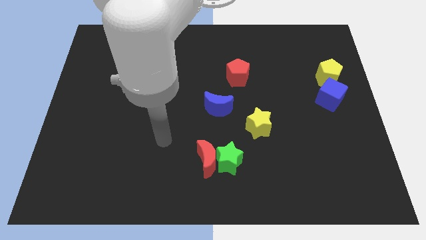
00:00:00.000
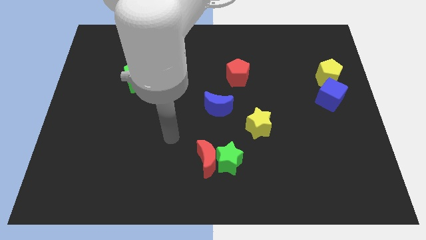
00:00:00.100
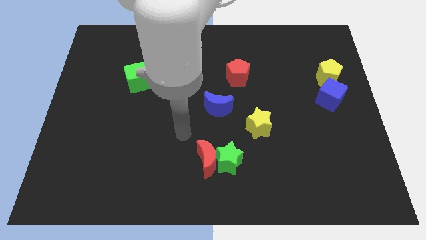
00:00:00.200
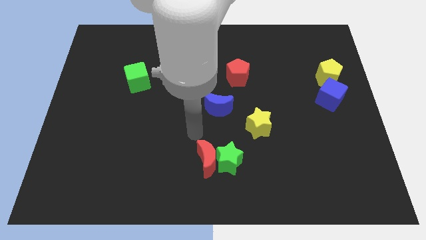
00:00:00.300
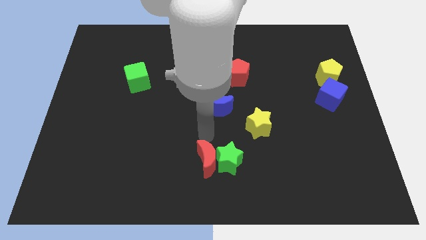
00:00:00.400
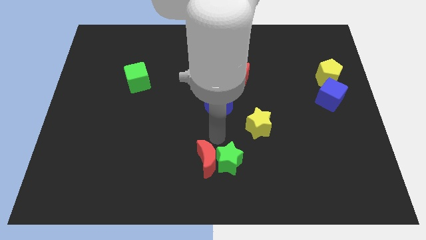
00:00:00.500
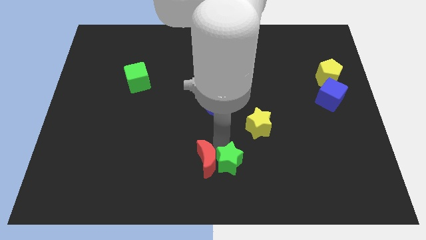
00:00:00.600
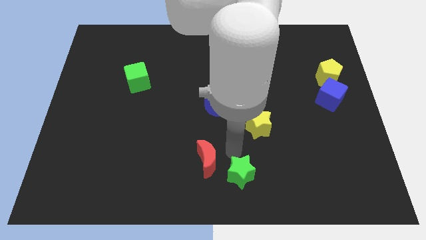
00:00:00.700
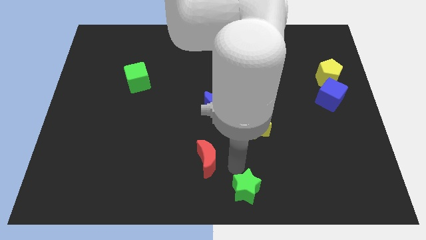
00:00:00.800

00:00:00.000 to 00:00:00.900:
separate the red moon from the green star

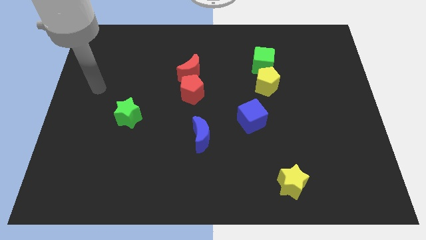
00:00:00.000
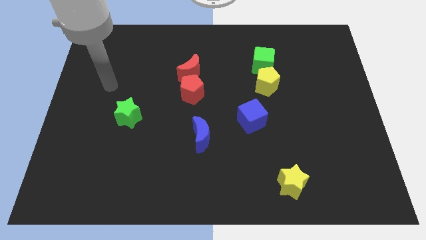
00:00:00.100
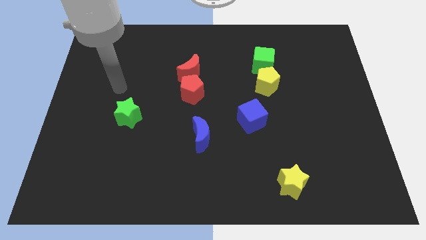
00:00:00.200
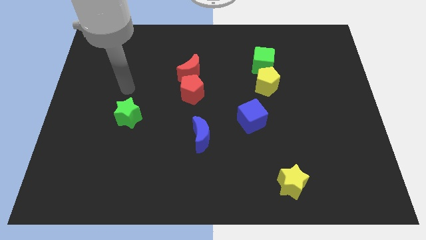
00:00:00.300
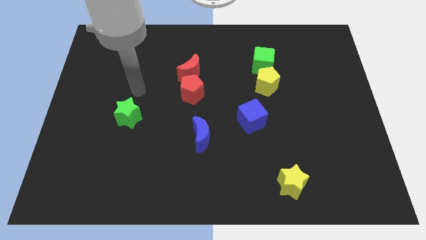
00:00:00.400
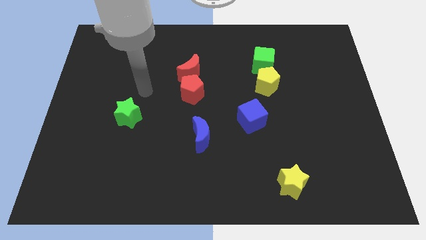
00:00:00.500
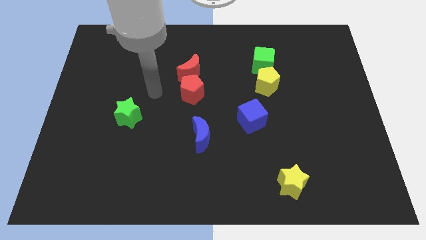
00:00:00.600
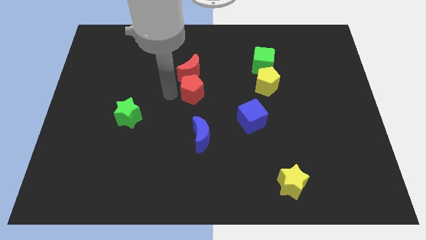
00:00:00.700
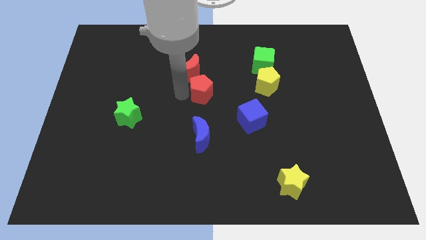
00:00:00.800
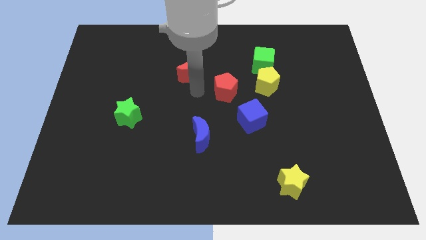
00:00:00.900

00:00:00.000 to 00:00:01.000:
move the red moon away from the red pentagon

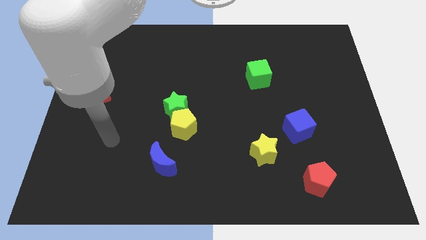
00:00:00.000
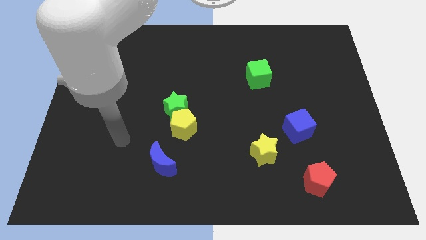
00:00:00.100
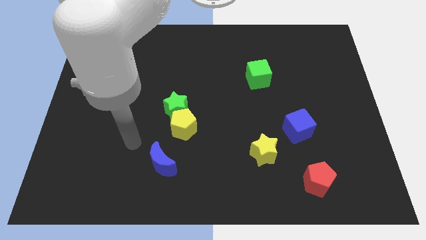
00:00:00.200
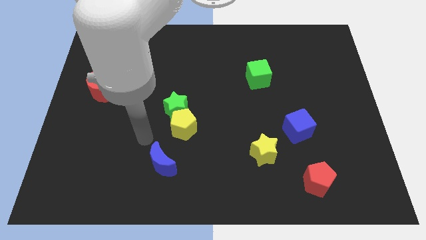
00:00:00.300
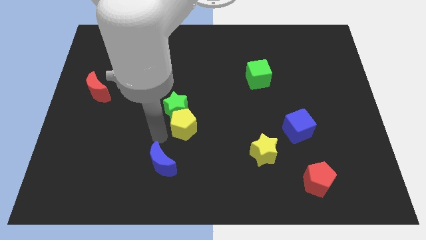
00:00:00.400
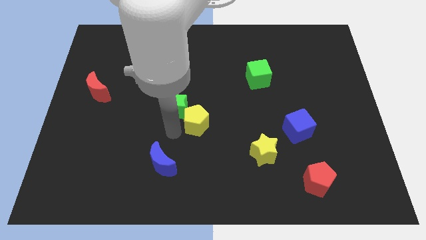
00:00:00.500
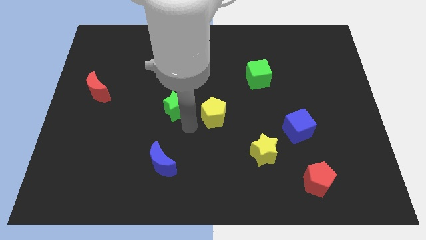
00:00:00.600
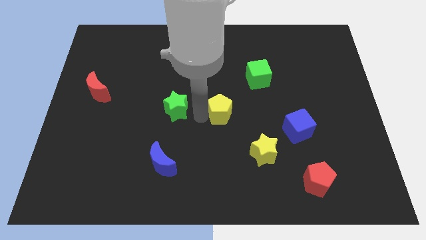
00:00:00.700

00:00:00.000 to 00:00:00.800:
pull the green star apart from the yellow pentagon

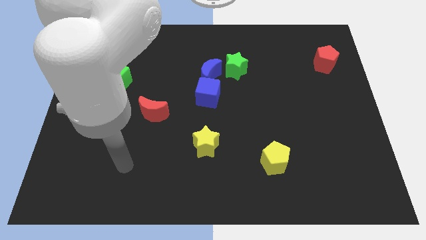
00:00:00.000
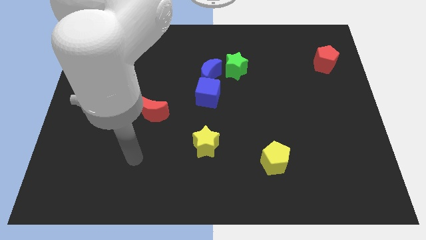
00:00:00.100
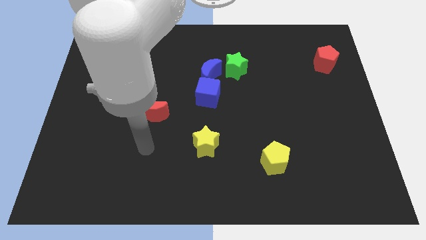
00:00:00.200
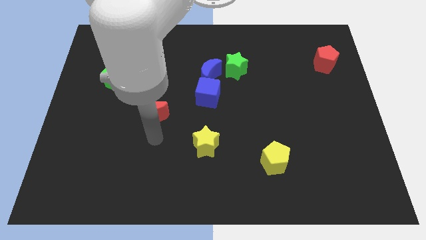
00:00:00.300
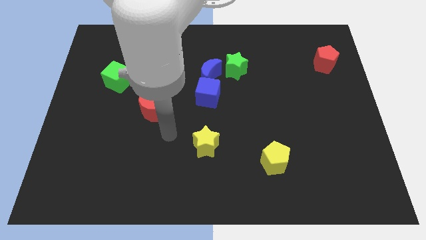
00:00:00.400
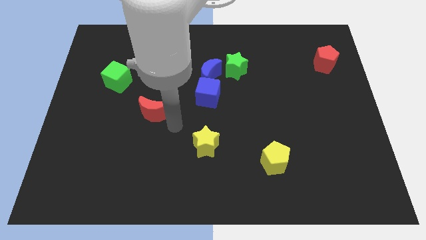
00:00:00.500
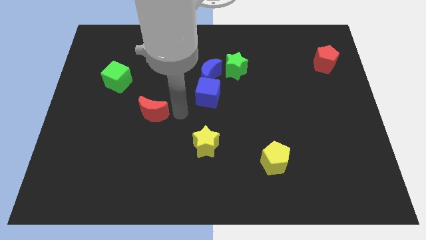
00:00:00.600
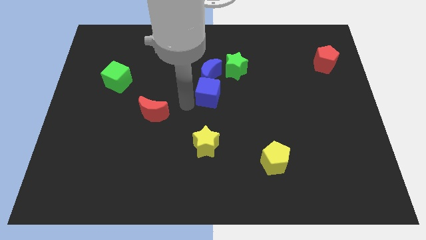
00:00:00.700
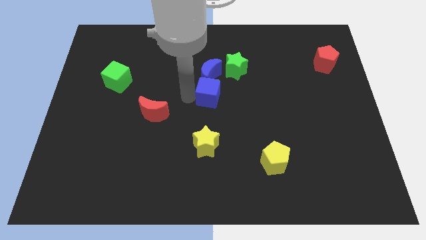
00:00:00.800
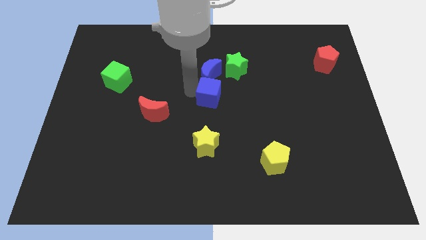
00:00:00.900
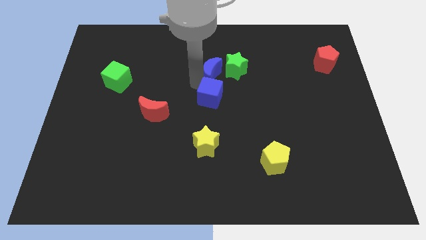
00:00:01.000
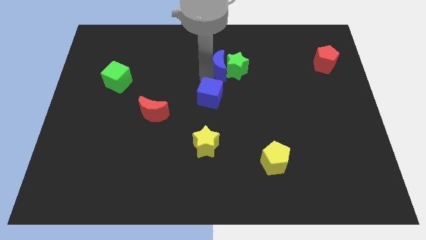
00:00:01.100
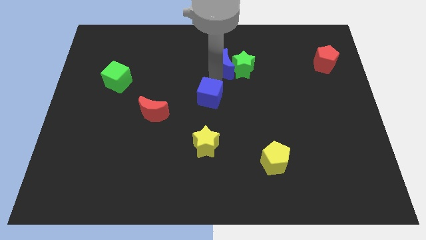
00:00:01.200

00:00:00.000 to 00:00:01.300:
pull the blue cube apart from the blue moon

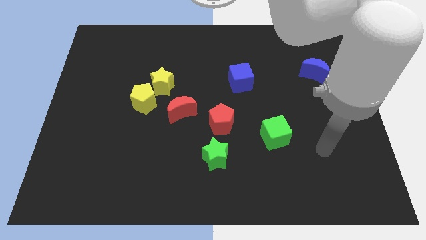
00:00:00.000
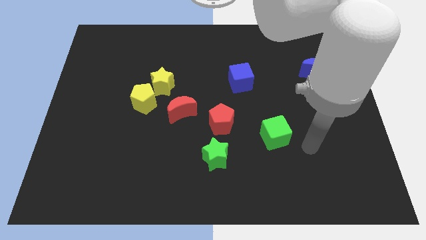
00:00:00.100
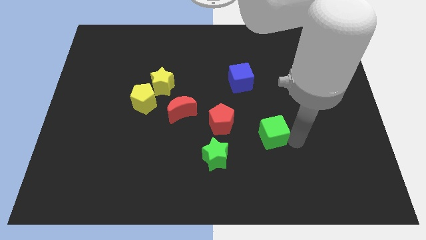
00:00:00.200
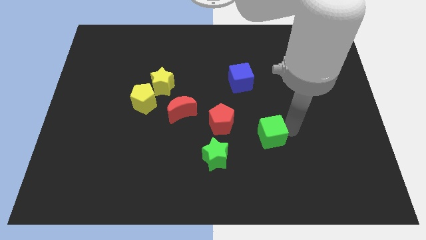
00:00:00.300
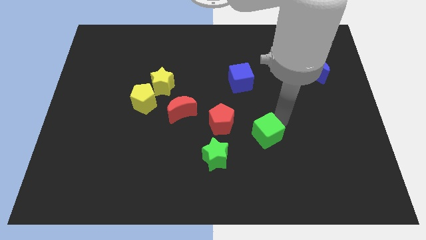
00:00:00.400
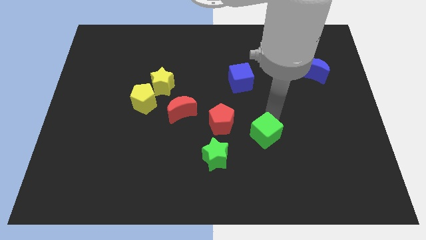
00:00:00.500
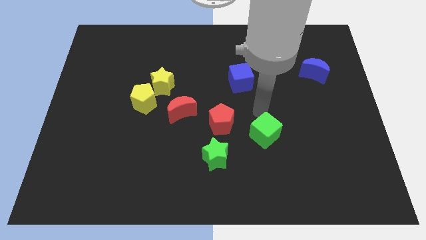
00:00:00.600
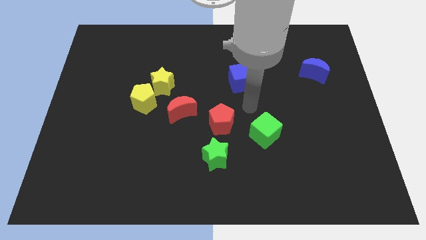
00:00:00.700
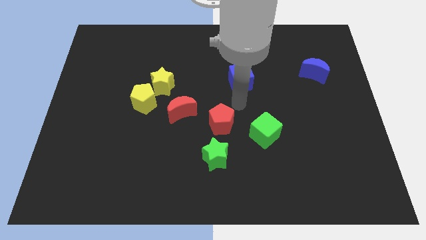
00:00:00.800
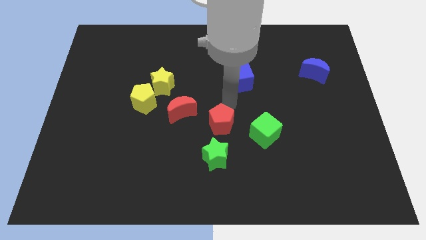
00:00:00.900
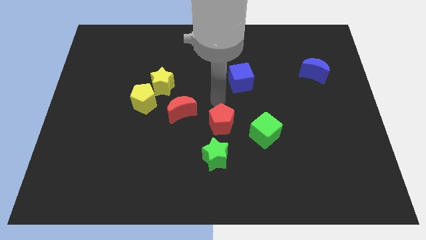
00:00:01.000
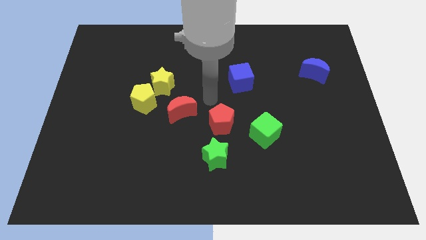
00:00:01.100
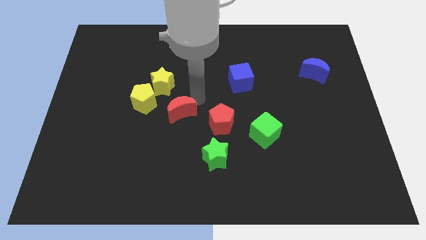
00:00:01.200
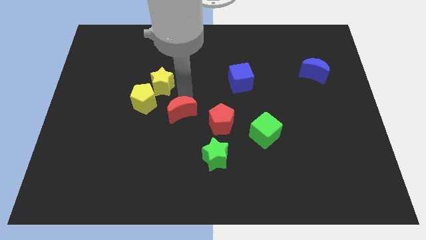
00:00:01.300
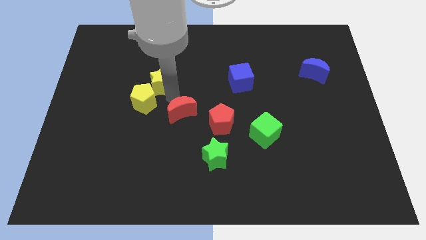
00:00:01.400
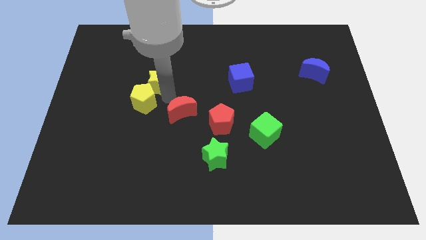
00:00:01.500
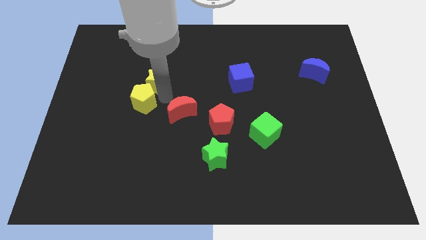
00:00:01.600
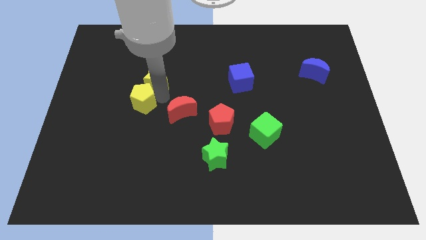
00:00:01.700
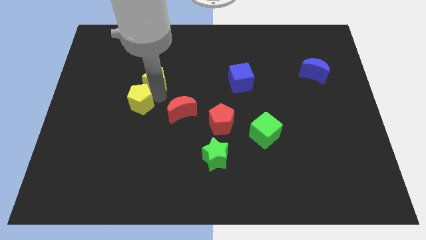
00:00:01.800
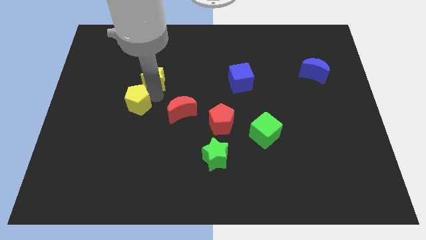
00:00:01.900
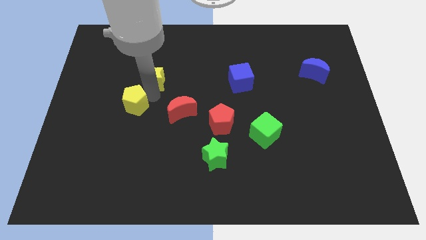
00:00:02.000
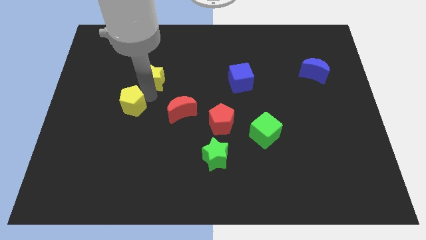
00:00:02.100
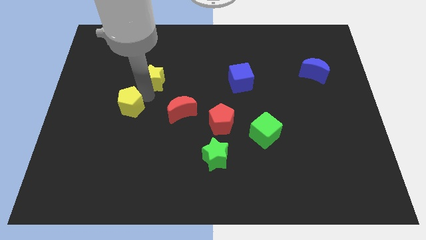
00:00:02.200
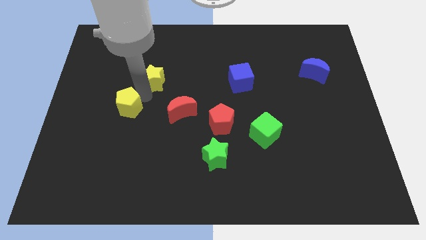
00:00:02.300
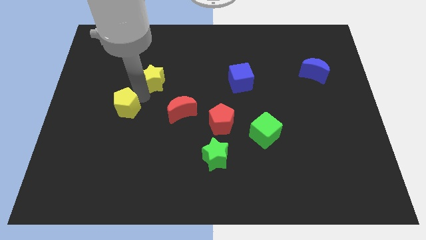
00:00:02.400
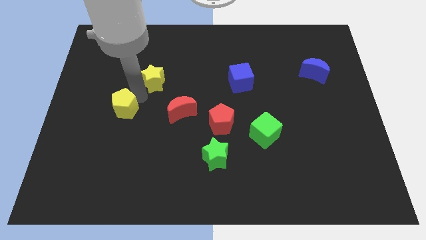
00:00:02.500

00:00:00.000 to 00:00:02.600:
move the yellow pentagon away from the yellow star and red moon

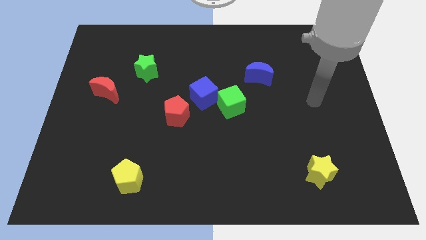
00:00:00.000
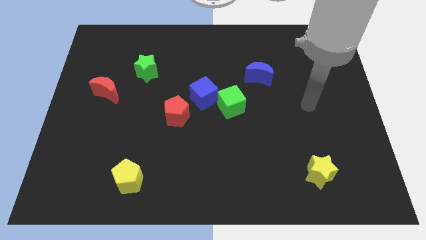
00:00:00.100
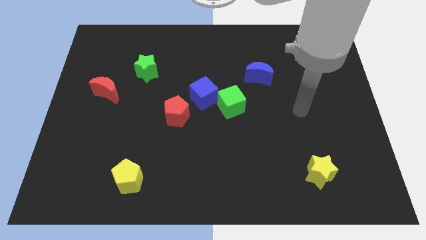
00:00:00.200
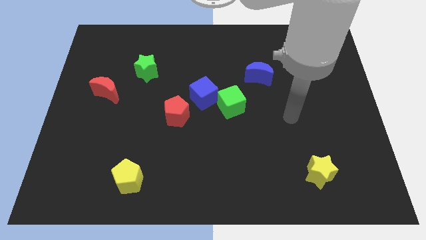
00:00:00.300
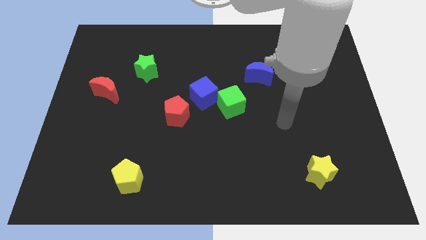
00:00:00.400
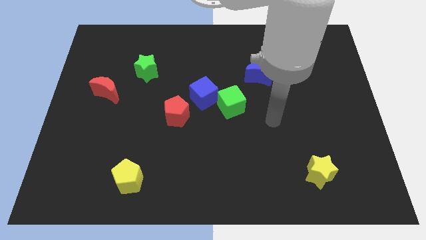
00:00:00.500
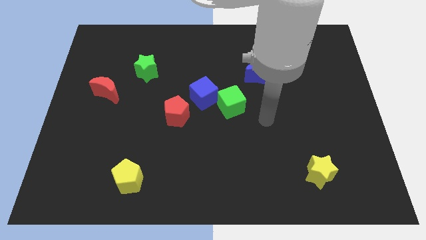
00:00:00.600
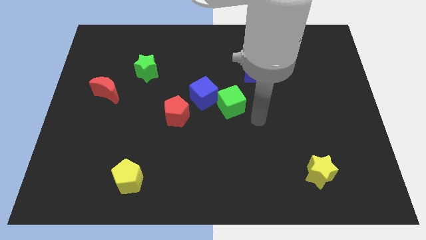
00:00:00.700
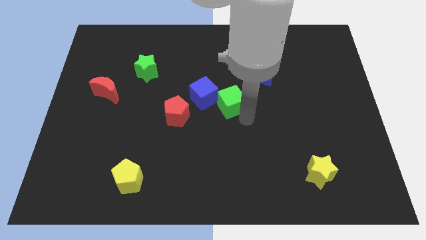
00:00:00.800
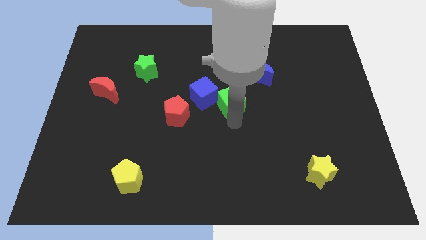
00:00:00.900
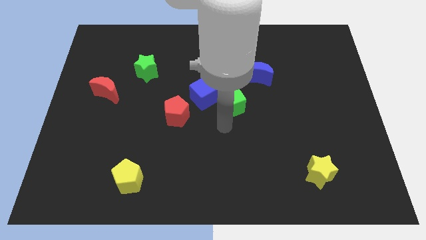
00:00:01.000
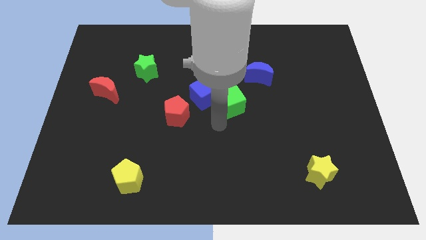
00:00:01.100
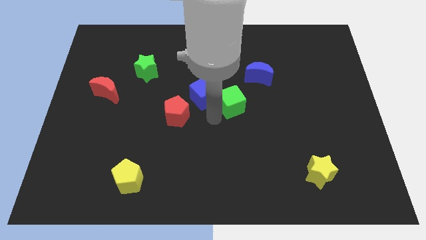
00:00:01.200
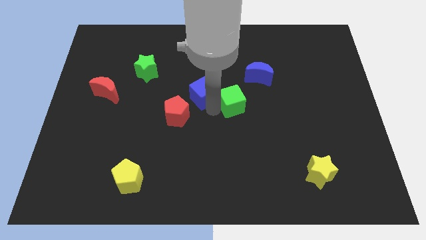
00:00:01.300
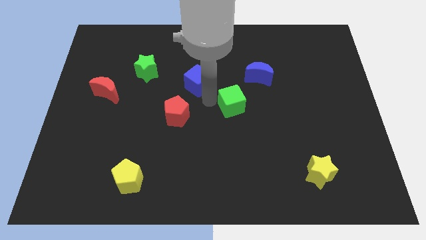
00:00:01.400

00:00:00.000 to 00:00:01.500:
pull the green cube apart from the blue cube

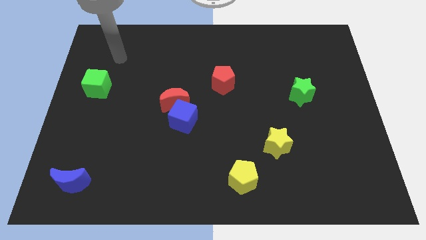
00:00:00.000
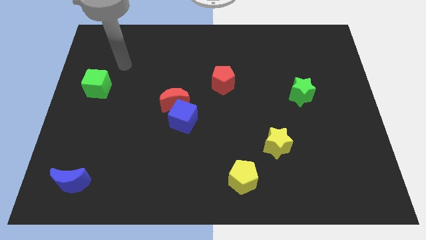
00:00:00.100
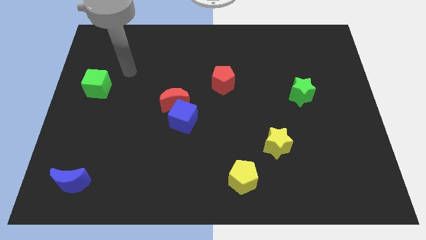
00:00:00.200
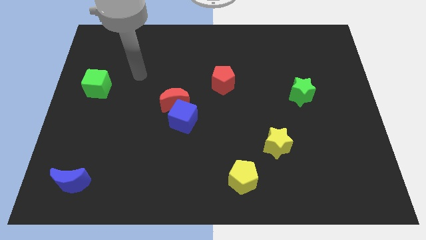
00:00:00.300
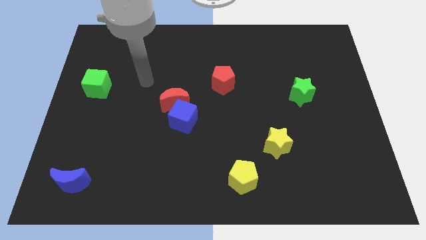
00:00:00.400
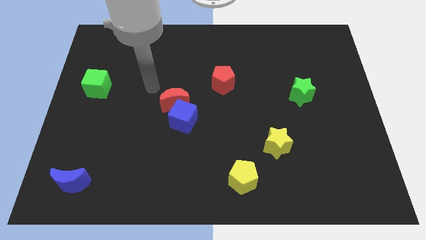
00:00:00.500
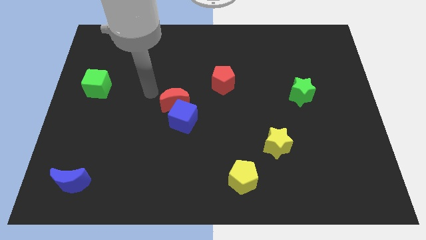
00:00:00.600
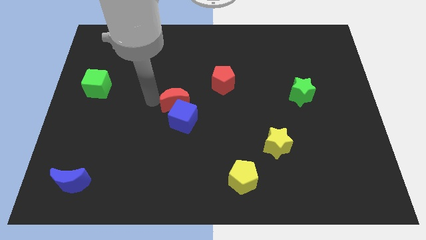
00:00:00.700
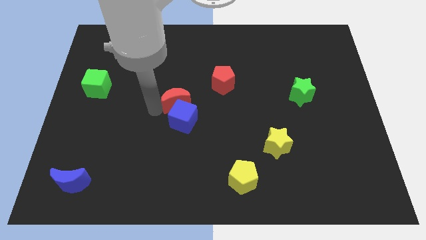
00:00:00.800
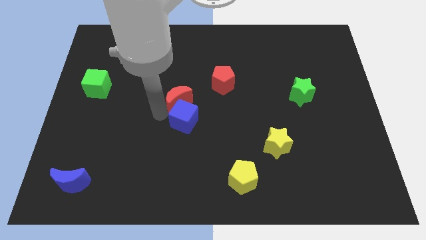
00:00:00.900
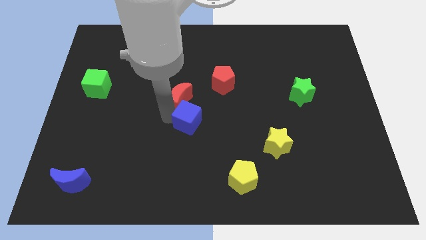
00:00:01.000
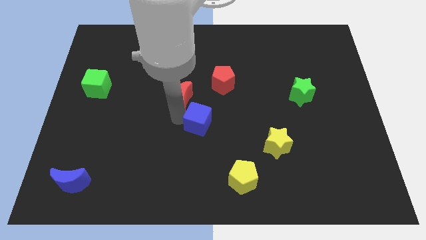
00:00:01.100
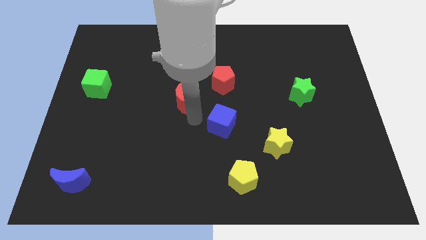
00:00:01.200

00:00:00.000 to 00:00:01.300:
separate the red moon from the blue cube
